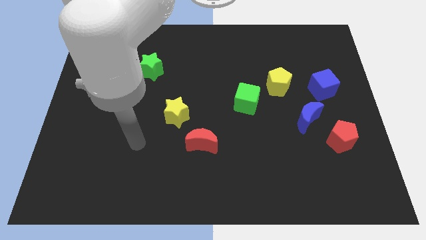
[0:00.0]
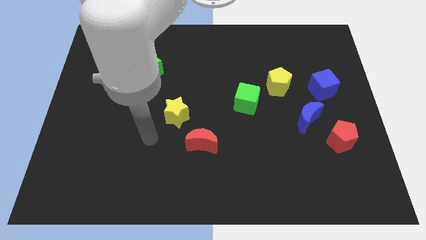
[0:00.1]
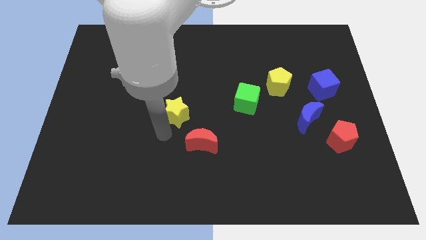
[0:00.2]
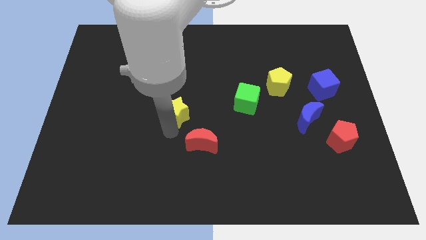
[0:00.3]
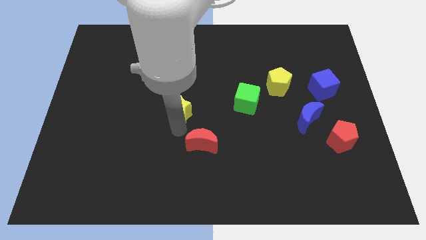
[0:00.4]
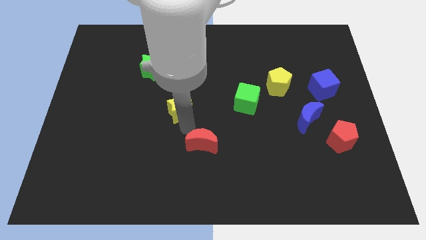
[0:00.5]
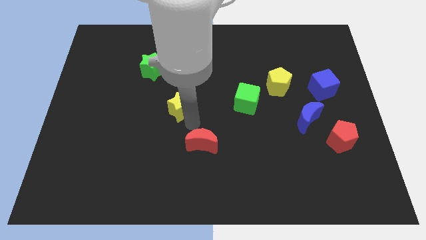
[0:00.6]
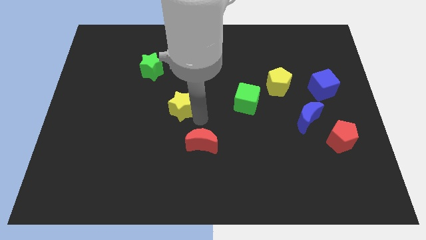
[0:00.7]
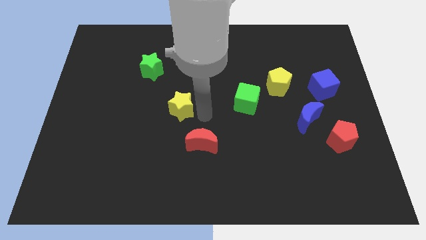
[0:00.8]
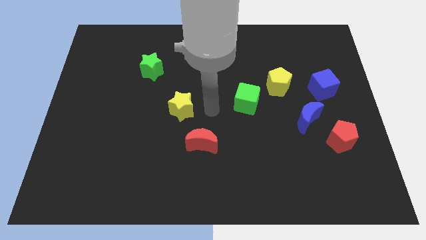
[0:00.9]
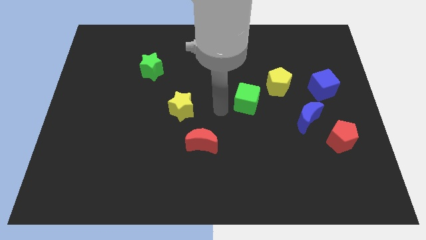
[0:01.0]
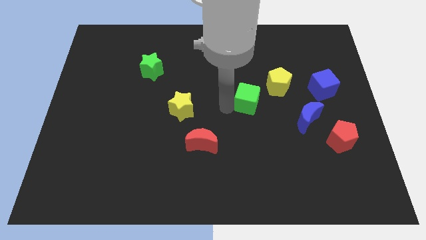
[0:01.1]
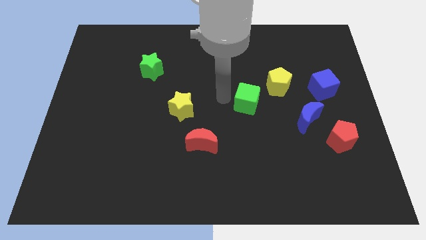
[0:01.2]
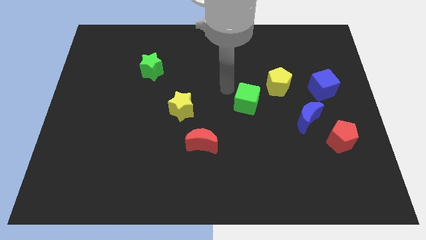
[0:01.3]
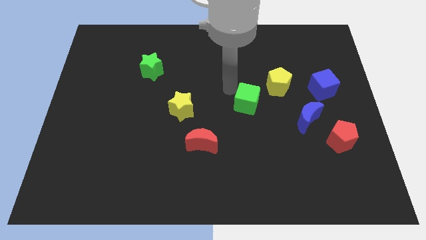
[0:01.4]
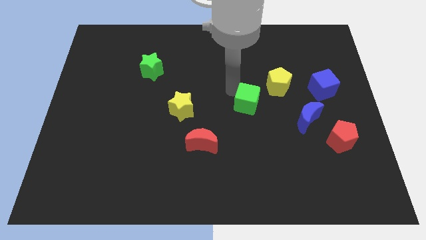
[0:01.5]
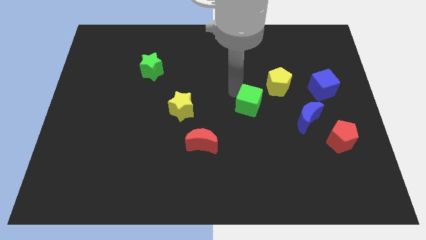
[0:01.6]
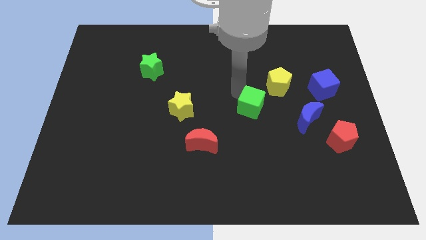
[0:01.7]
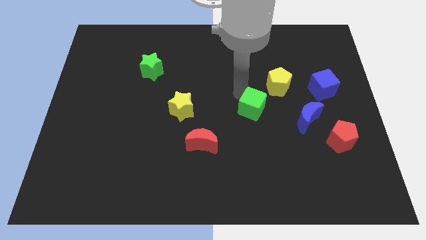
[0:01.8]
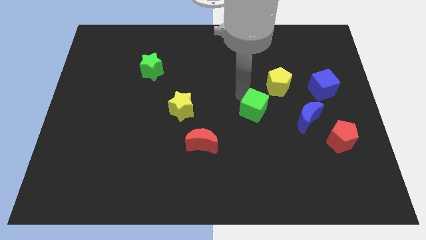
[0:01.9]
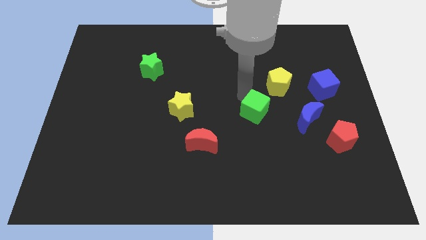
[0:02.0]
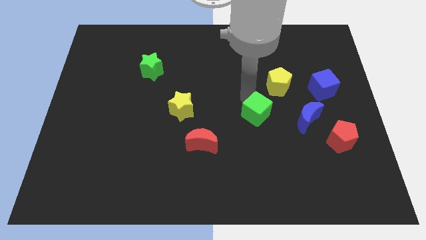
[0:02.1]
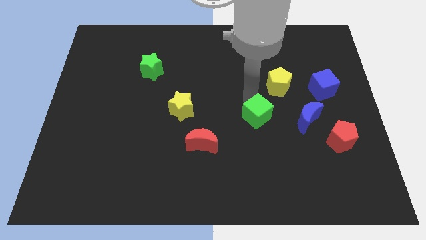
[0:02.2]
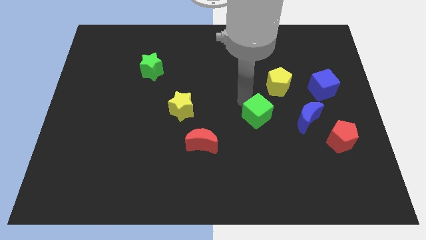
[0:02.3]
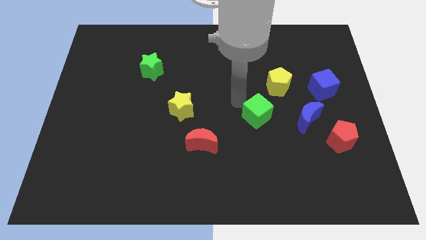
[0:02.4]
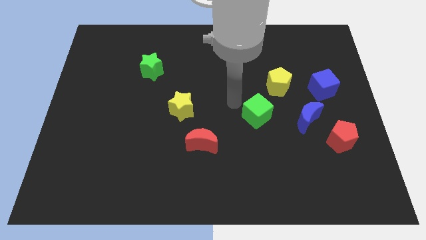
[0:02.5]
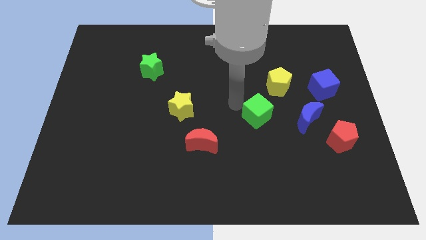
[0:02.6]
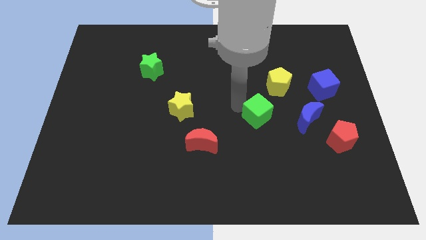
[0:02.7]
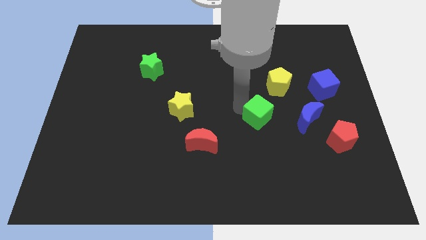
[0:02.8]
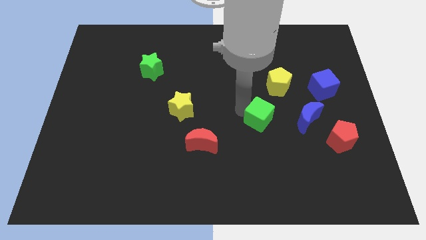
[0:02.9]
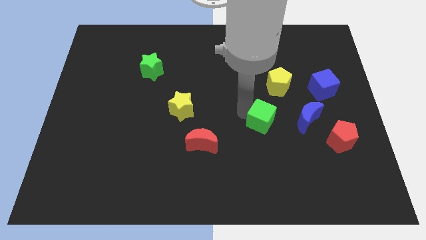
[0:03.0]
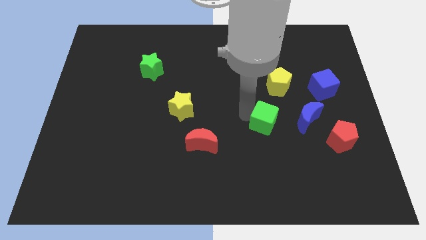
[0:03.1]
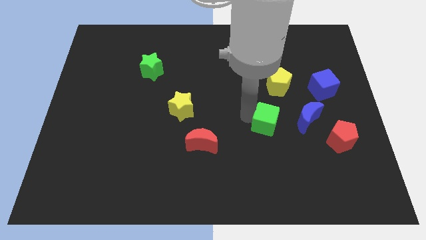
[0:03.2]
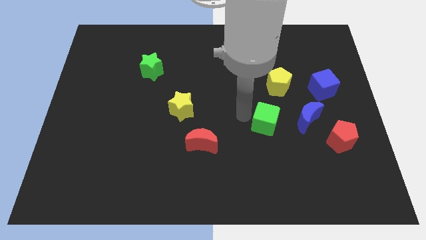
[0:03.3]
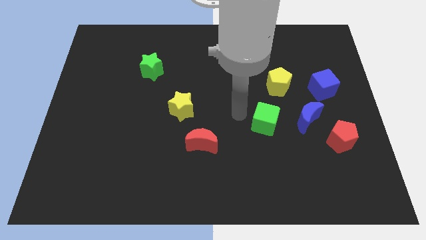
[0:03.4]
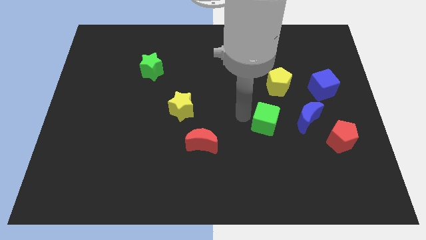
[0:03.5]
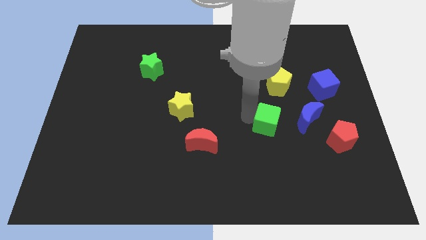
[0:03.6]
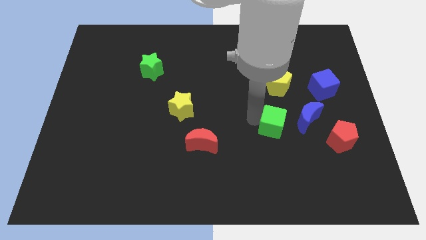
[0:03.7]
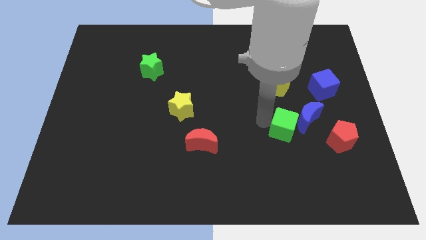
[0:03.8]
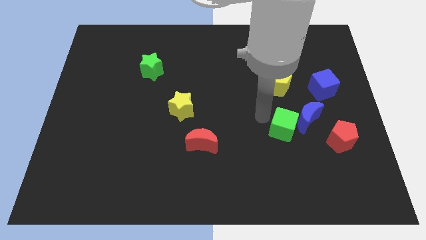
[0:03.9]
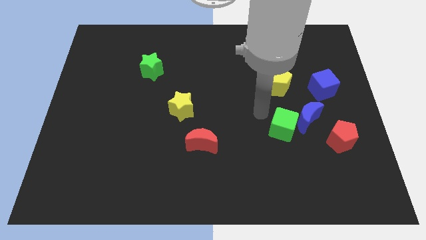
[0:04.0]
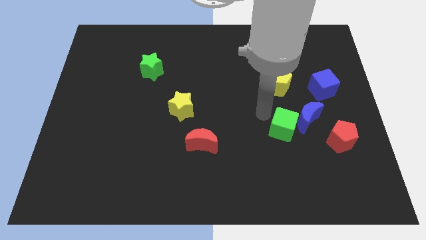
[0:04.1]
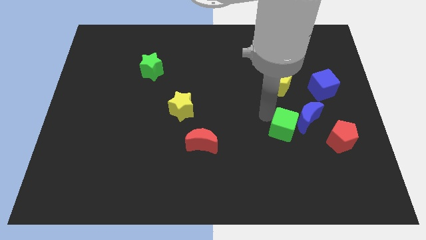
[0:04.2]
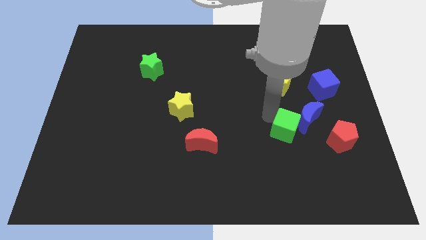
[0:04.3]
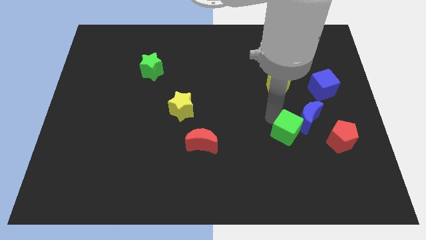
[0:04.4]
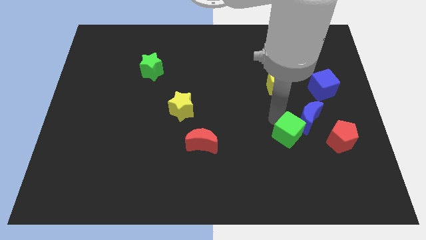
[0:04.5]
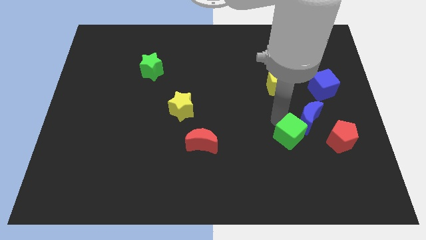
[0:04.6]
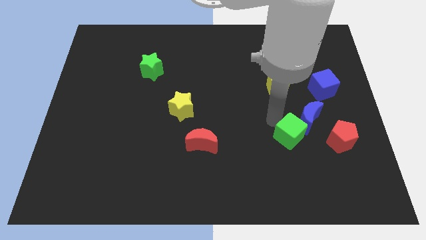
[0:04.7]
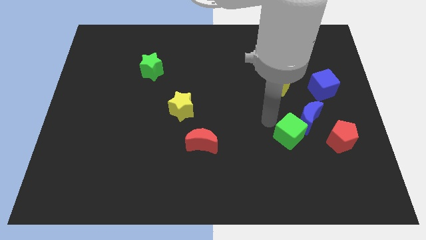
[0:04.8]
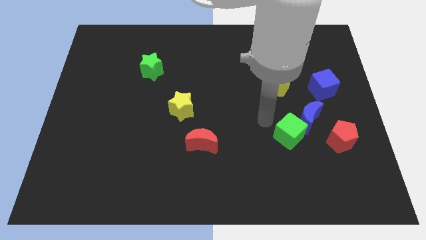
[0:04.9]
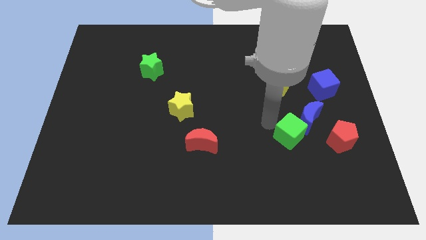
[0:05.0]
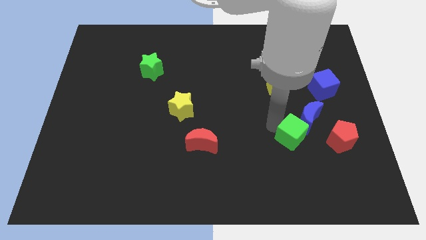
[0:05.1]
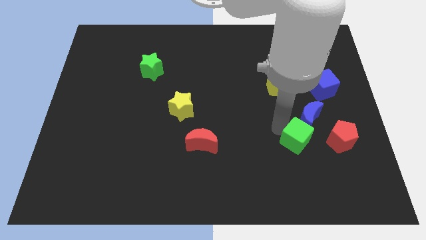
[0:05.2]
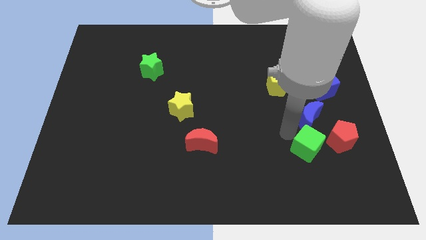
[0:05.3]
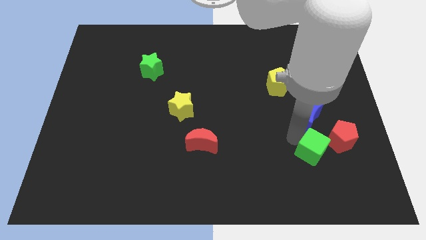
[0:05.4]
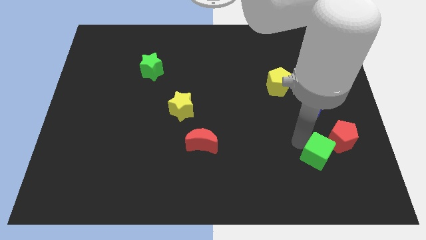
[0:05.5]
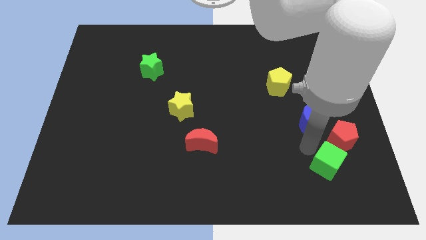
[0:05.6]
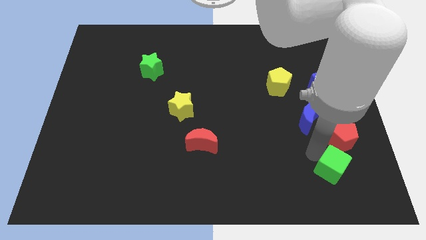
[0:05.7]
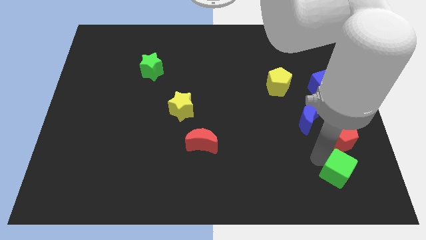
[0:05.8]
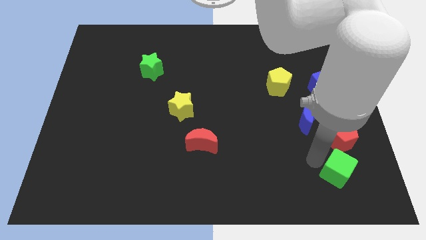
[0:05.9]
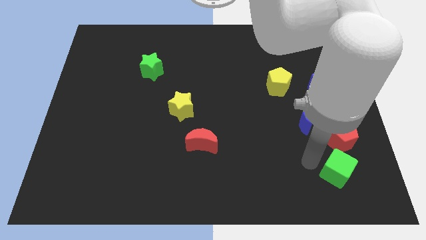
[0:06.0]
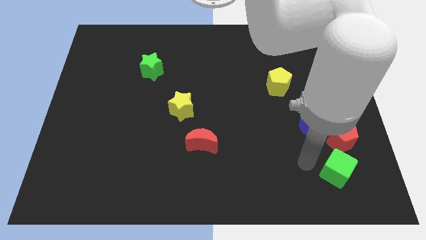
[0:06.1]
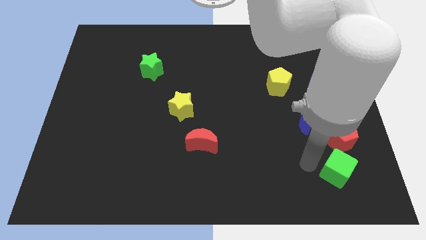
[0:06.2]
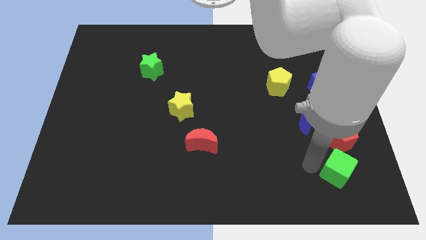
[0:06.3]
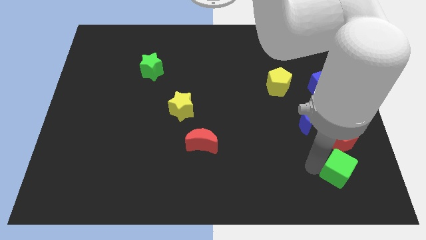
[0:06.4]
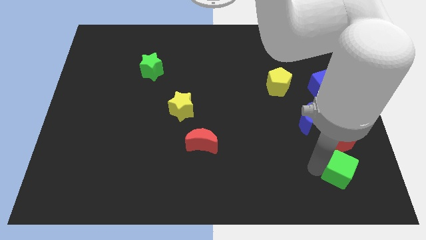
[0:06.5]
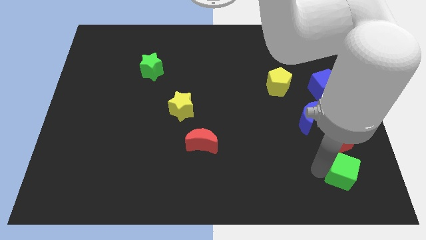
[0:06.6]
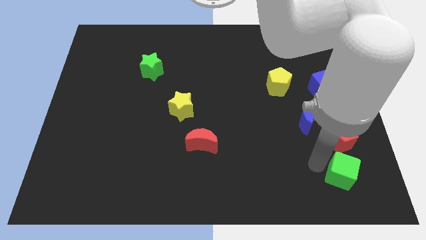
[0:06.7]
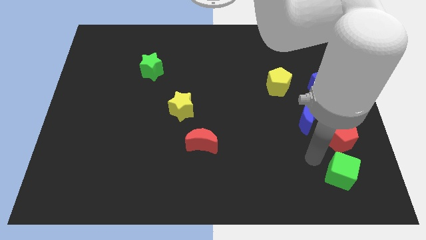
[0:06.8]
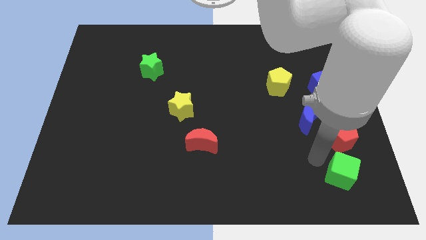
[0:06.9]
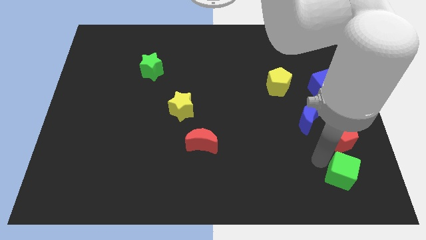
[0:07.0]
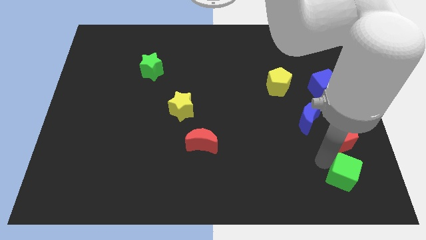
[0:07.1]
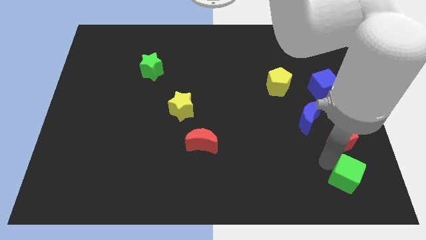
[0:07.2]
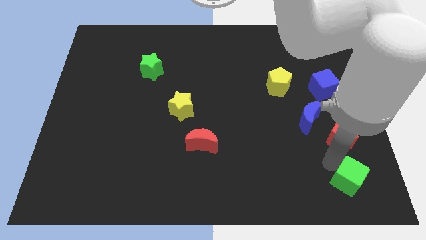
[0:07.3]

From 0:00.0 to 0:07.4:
slide the green cube to the bottom right
